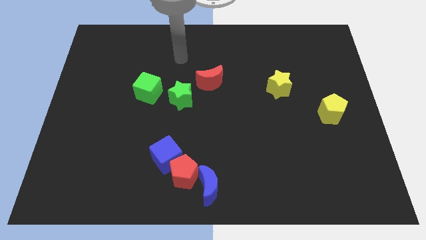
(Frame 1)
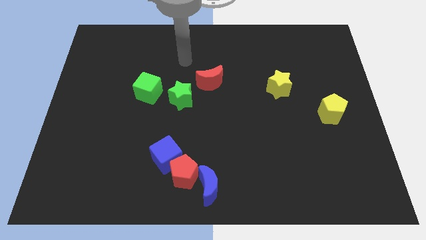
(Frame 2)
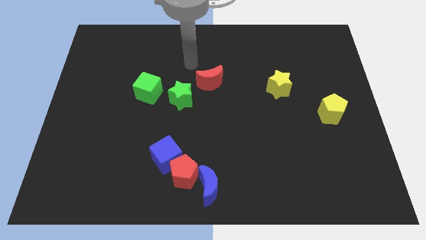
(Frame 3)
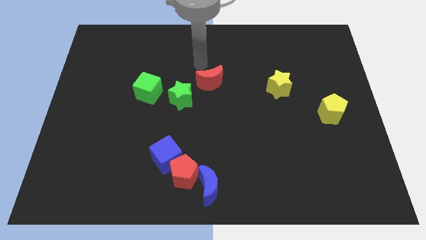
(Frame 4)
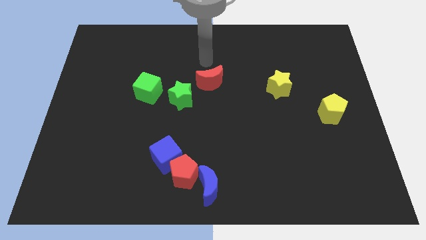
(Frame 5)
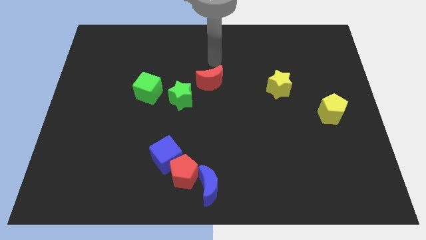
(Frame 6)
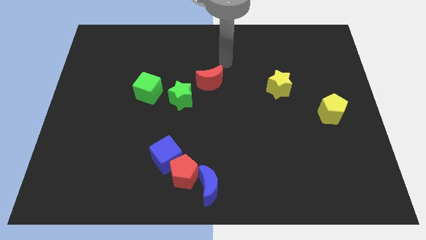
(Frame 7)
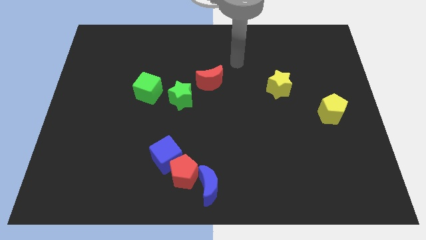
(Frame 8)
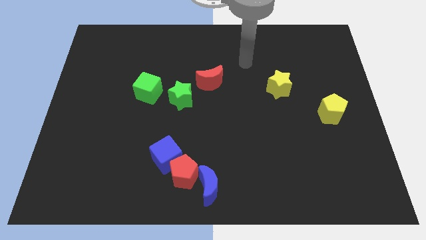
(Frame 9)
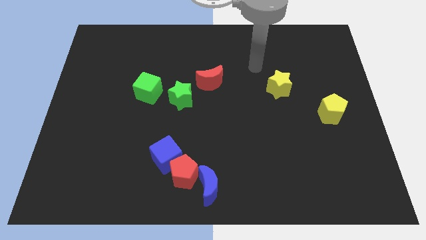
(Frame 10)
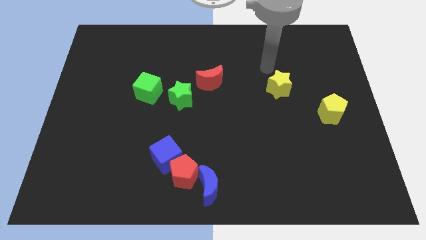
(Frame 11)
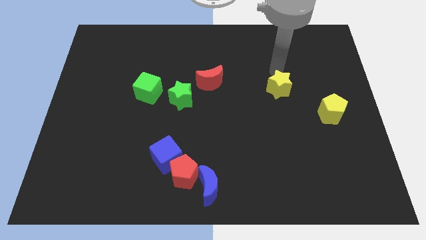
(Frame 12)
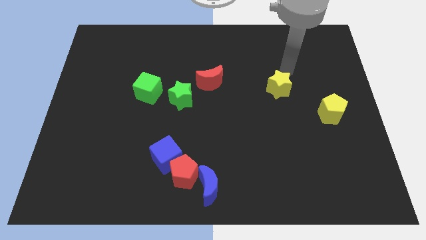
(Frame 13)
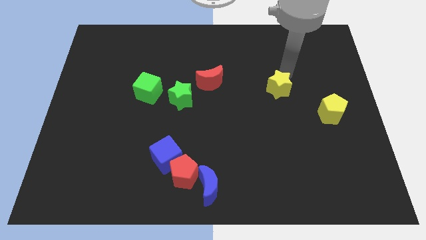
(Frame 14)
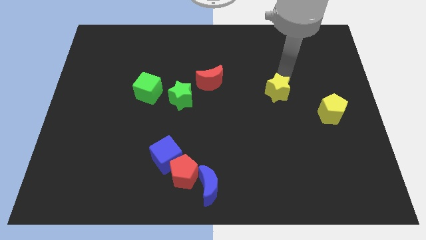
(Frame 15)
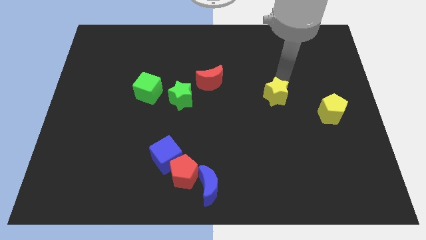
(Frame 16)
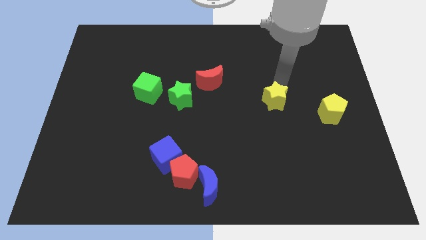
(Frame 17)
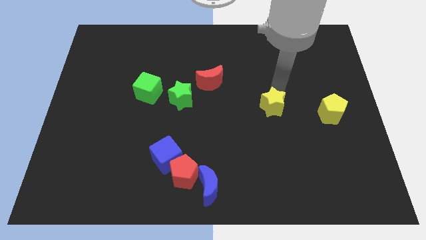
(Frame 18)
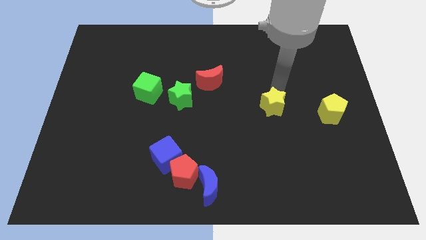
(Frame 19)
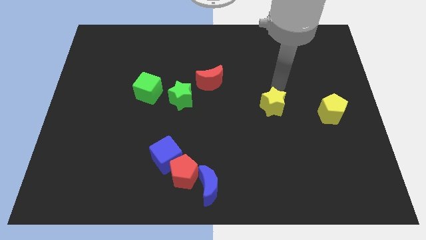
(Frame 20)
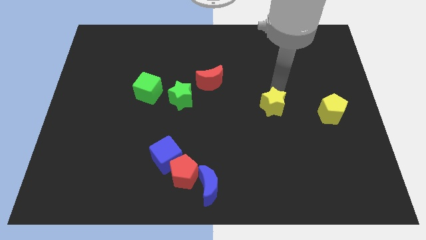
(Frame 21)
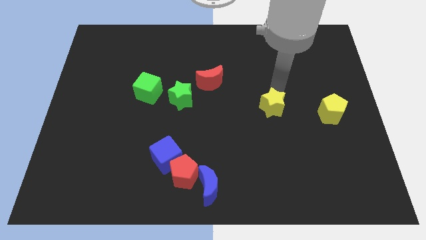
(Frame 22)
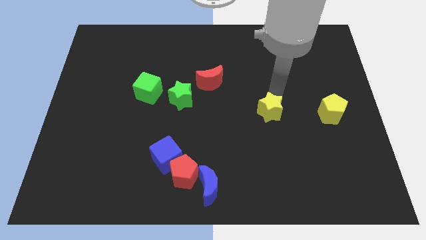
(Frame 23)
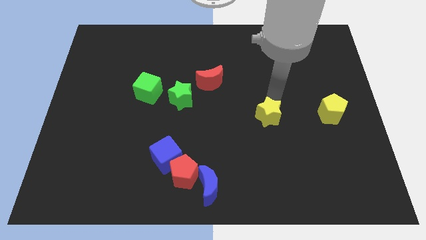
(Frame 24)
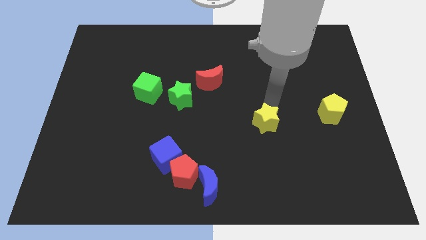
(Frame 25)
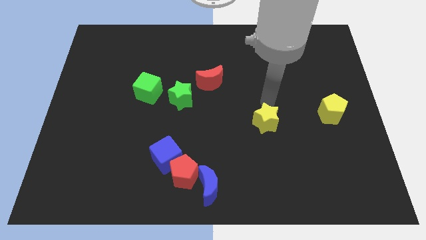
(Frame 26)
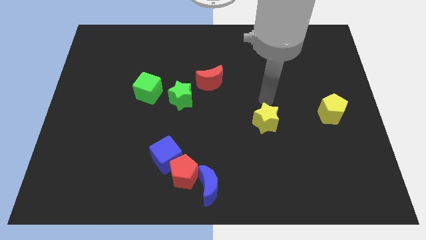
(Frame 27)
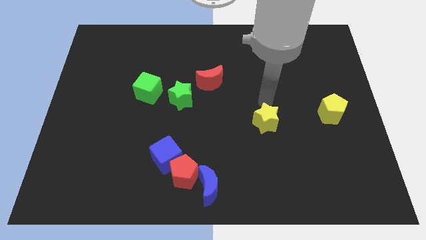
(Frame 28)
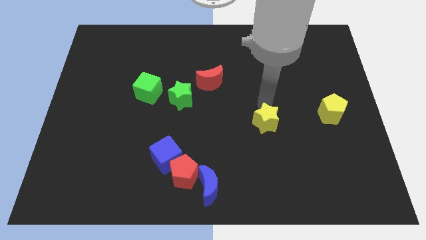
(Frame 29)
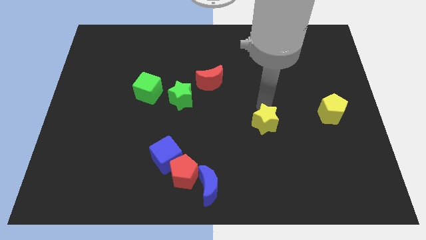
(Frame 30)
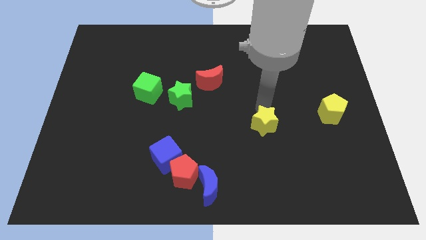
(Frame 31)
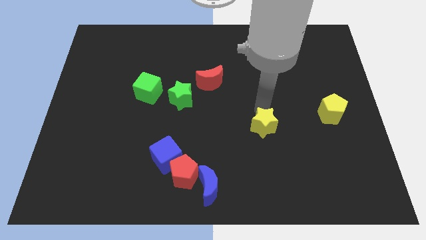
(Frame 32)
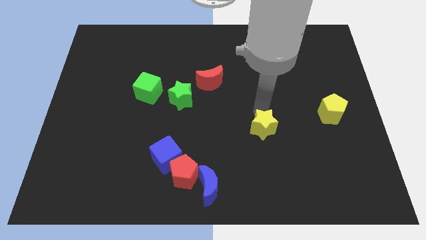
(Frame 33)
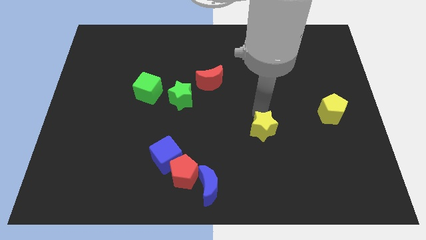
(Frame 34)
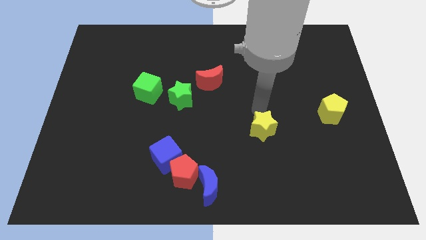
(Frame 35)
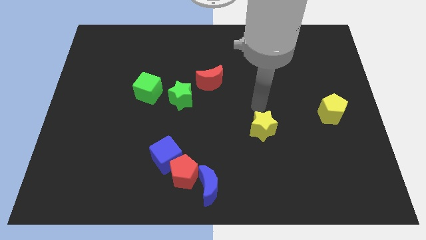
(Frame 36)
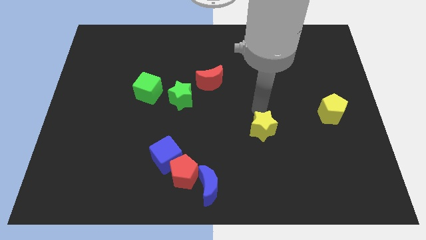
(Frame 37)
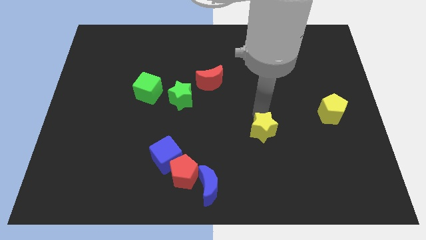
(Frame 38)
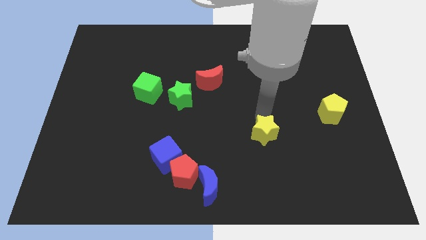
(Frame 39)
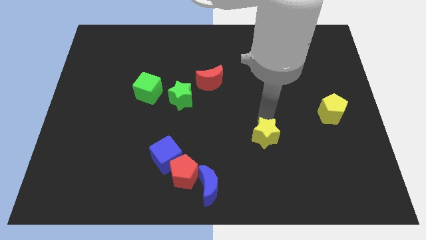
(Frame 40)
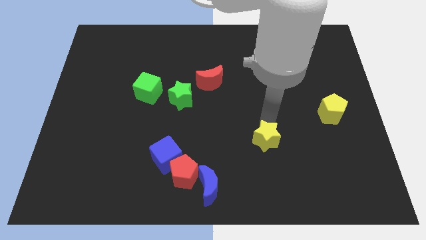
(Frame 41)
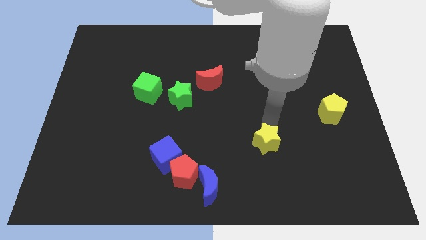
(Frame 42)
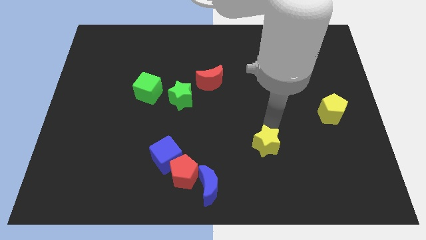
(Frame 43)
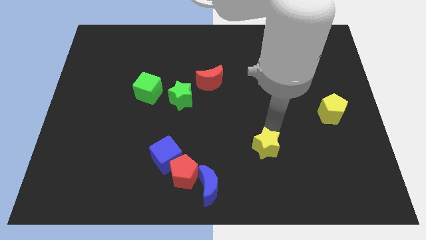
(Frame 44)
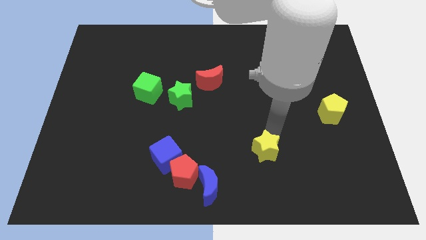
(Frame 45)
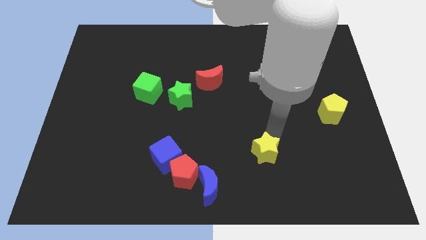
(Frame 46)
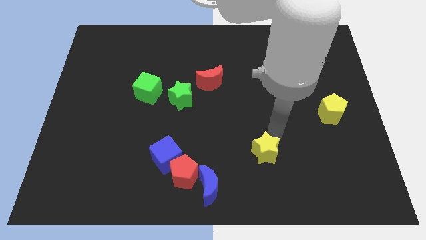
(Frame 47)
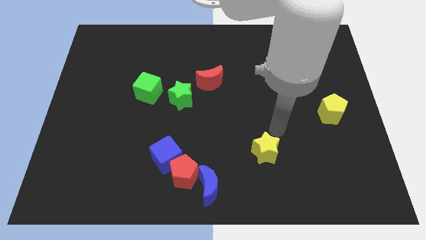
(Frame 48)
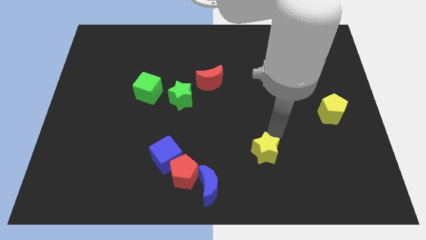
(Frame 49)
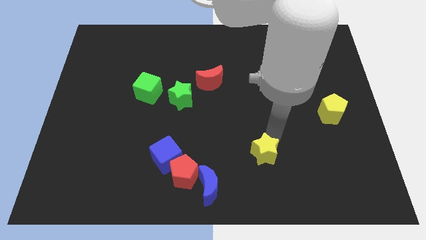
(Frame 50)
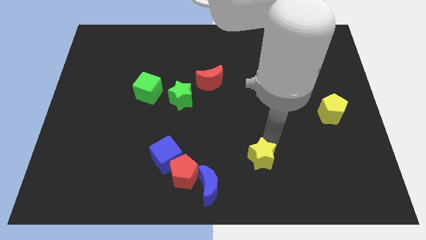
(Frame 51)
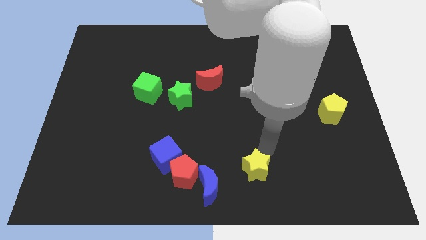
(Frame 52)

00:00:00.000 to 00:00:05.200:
push the yellow star to the bottom side

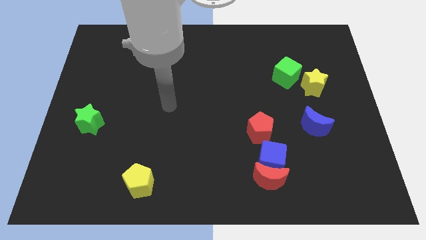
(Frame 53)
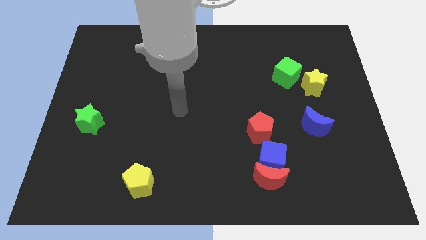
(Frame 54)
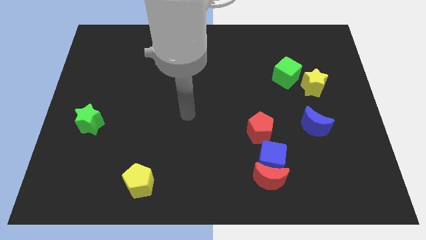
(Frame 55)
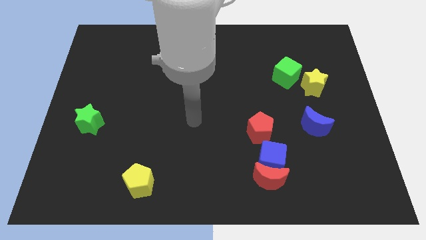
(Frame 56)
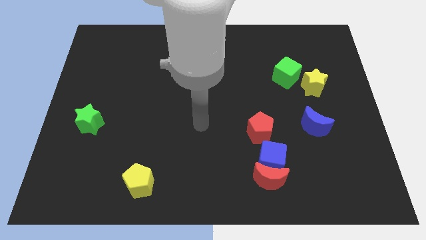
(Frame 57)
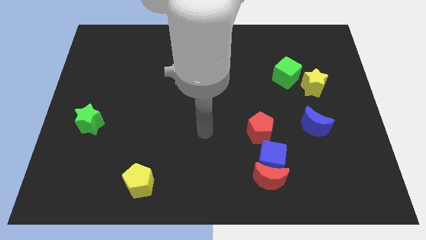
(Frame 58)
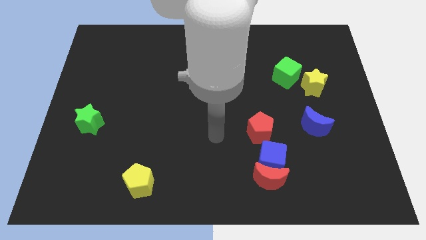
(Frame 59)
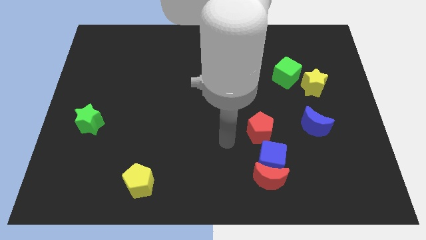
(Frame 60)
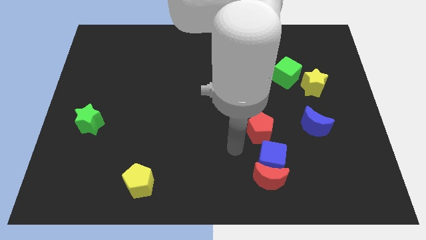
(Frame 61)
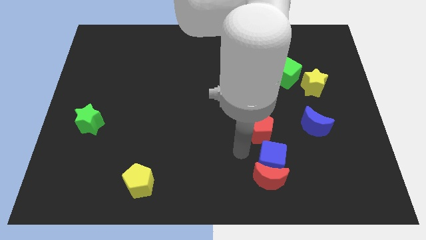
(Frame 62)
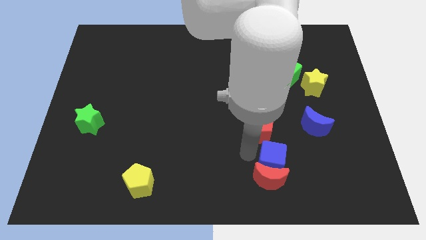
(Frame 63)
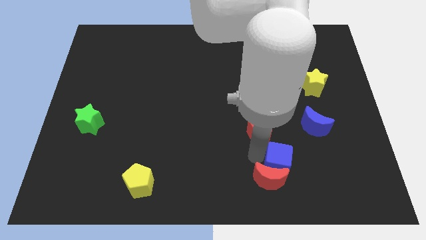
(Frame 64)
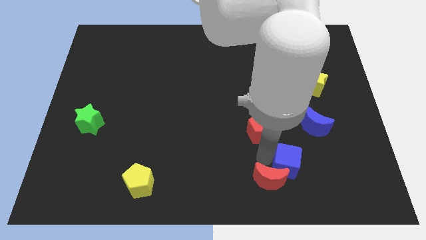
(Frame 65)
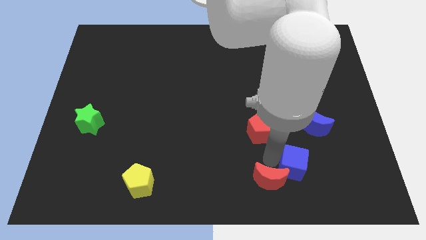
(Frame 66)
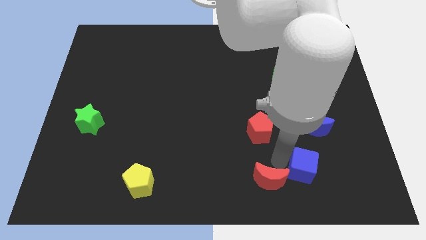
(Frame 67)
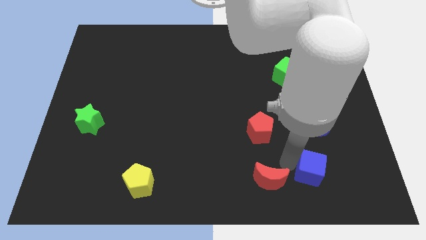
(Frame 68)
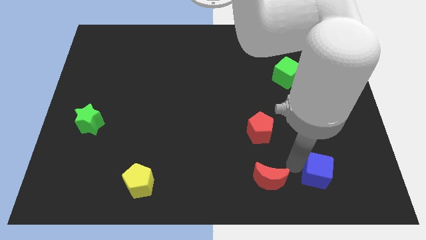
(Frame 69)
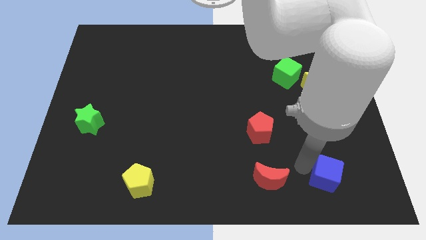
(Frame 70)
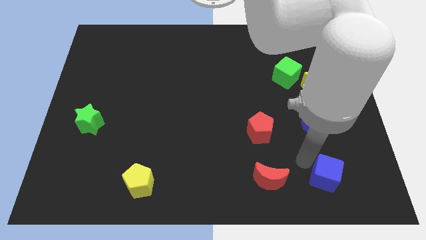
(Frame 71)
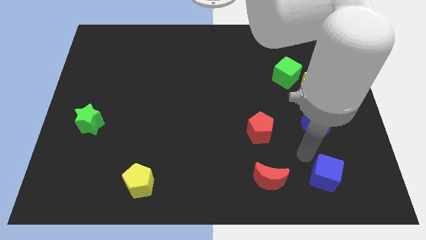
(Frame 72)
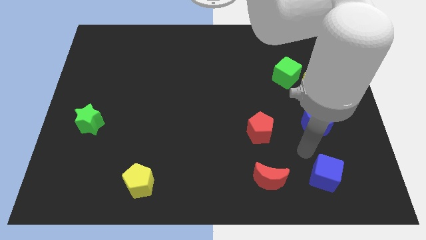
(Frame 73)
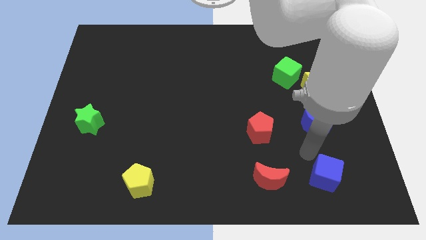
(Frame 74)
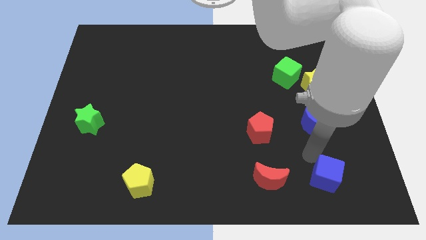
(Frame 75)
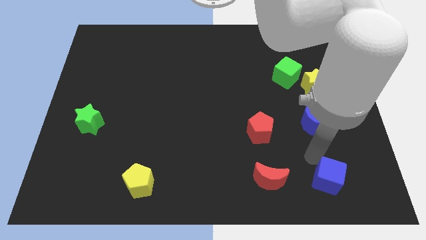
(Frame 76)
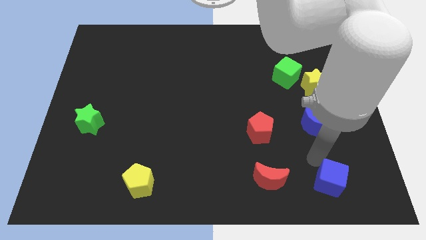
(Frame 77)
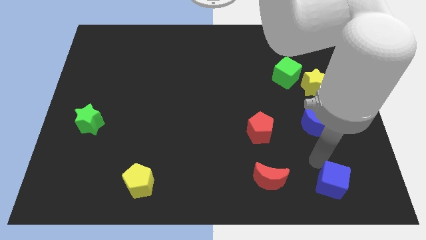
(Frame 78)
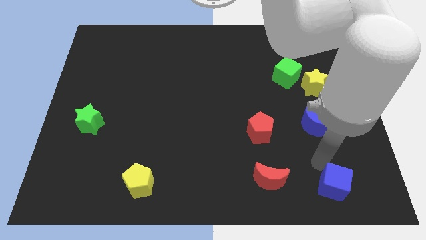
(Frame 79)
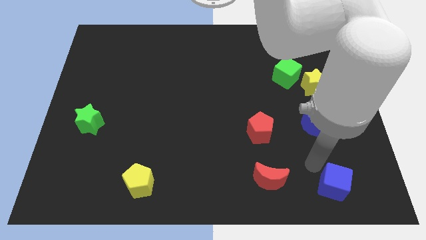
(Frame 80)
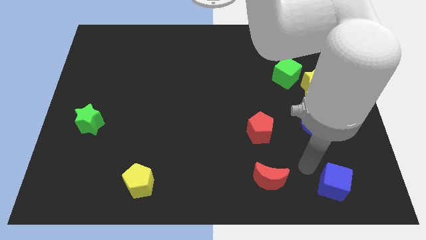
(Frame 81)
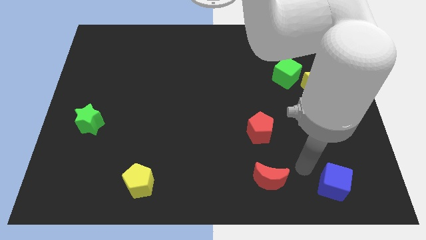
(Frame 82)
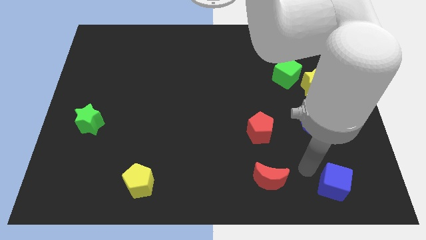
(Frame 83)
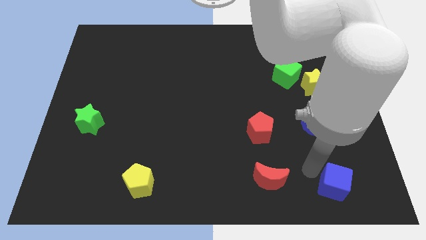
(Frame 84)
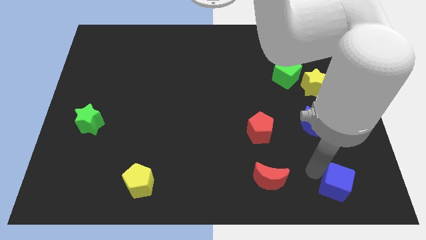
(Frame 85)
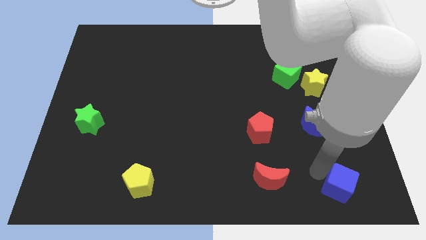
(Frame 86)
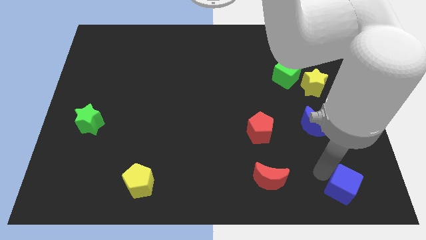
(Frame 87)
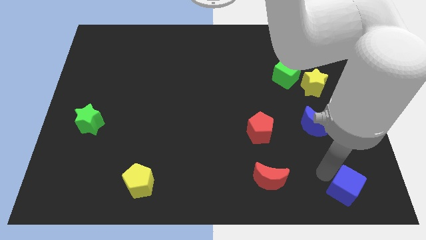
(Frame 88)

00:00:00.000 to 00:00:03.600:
put the blue cube to the bottom right of the board
